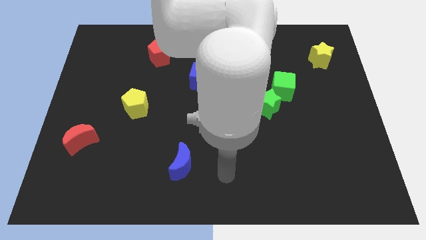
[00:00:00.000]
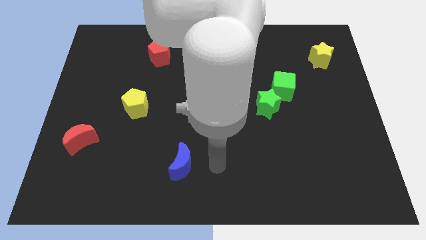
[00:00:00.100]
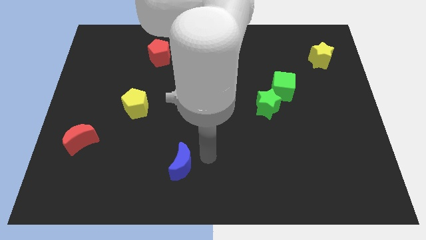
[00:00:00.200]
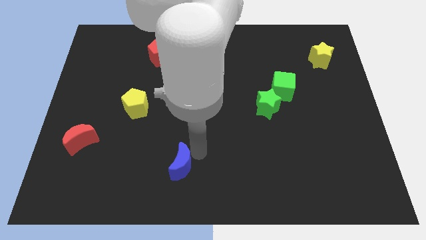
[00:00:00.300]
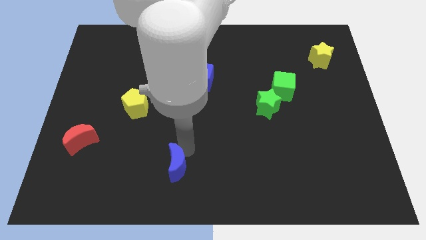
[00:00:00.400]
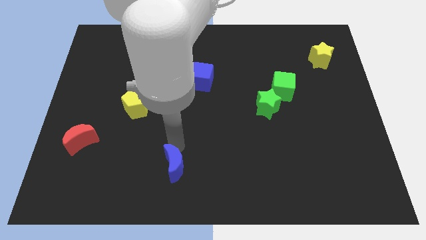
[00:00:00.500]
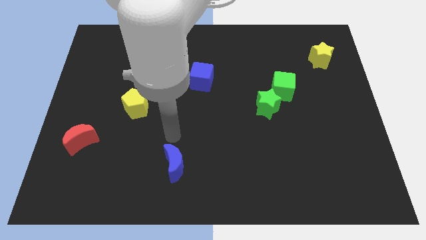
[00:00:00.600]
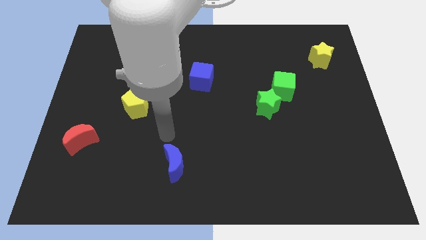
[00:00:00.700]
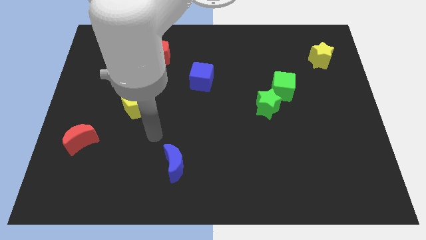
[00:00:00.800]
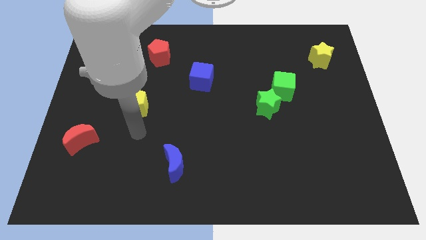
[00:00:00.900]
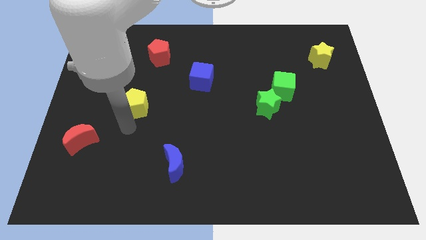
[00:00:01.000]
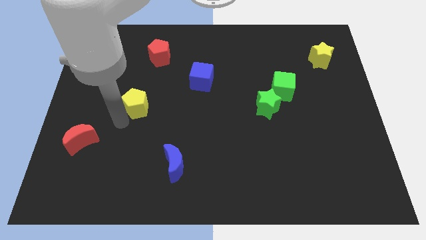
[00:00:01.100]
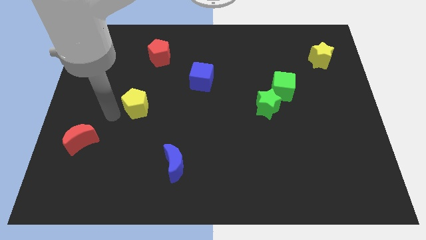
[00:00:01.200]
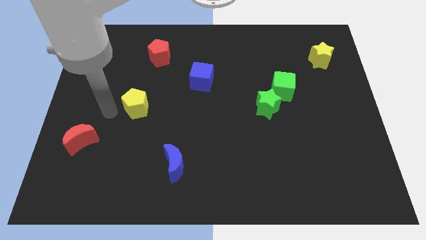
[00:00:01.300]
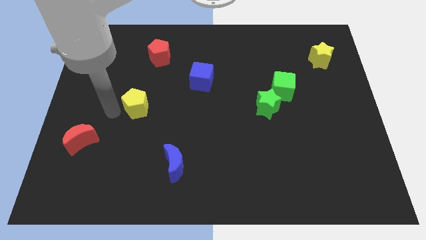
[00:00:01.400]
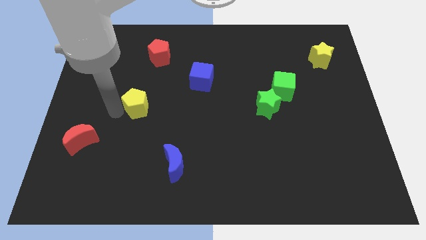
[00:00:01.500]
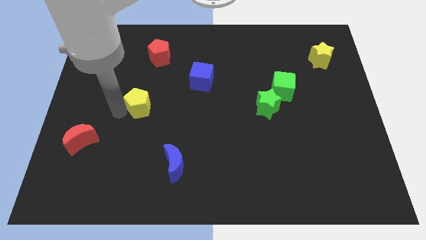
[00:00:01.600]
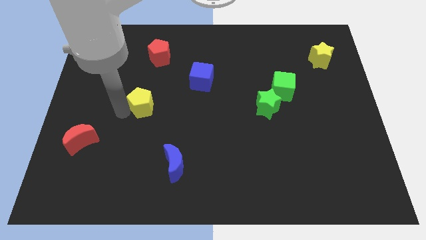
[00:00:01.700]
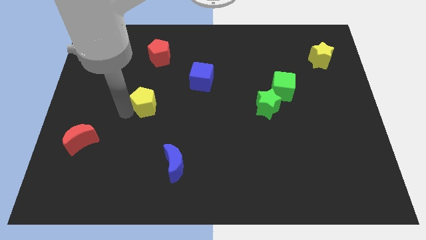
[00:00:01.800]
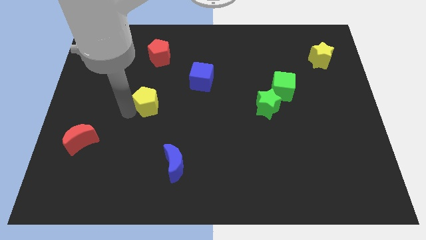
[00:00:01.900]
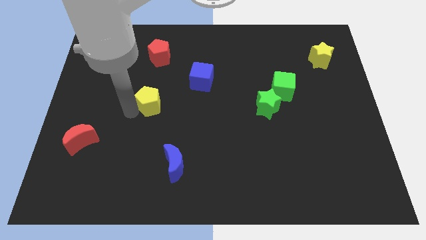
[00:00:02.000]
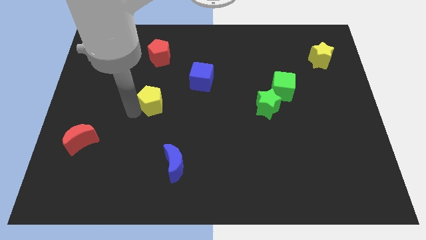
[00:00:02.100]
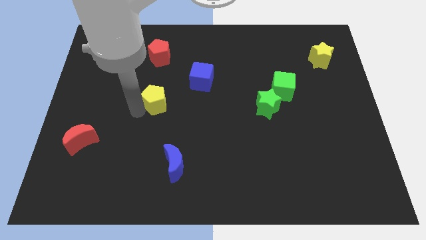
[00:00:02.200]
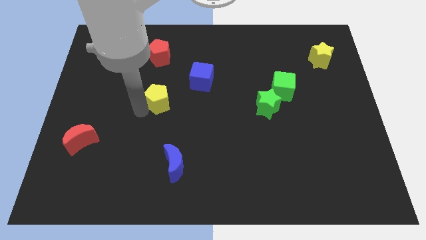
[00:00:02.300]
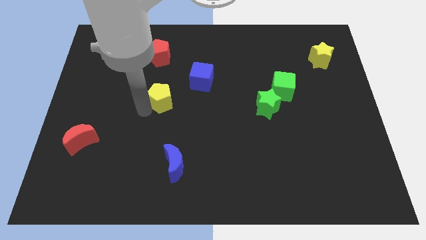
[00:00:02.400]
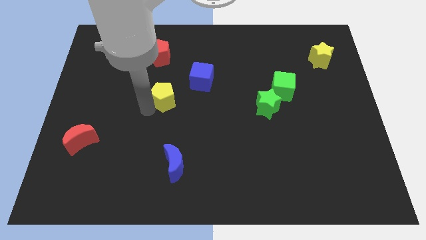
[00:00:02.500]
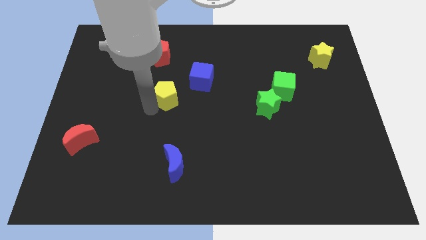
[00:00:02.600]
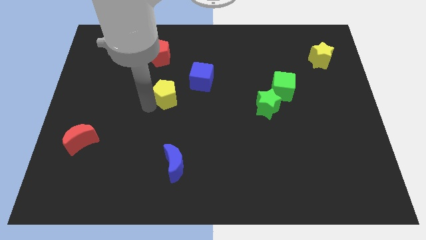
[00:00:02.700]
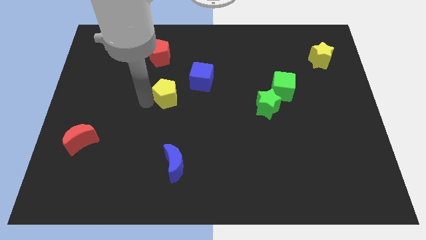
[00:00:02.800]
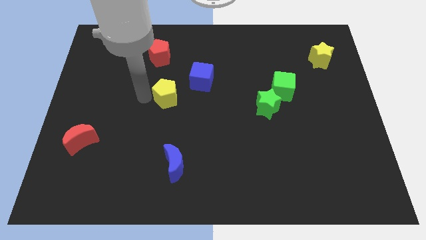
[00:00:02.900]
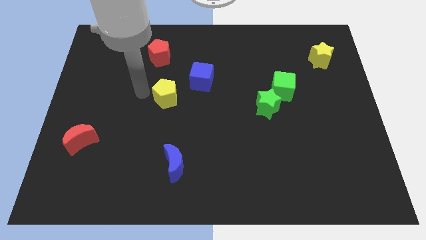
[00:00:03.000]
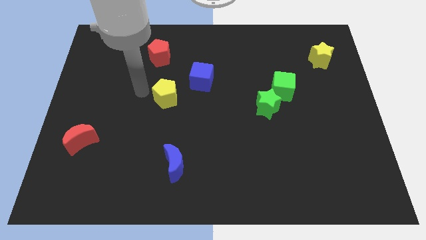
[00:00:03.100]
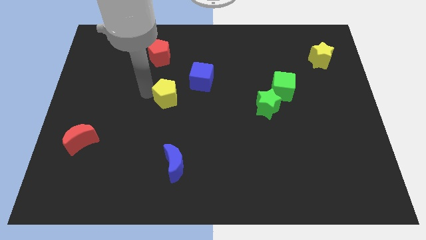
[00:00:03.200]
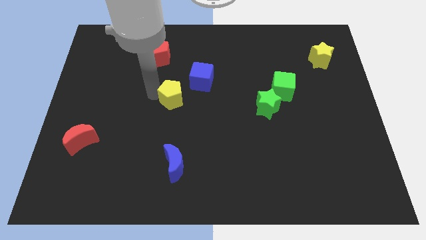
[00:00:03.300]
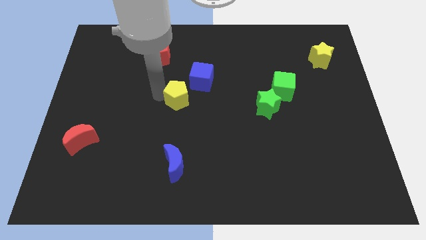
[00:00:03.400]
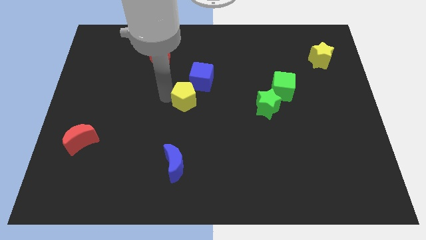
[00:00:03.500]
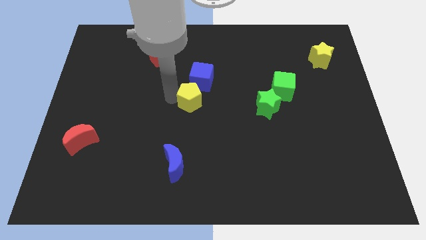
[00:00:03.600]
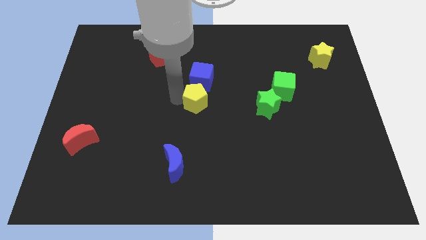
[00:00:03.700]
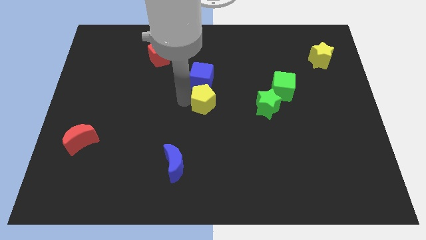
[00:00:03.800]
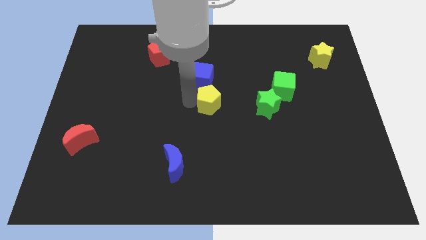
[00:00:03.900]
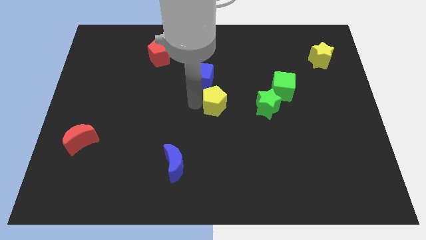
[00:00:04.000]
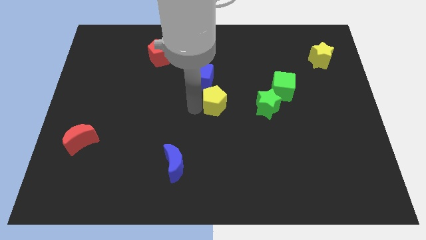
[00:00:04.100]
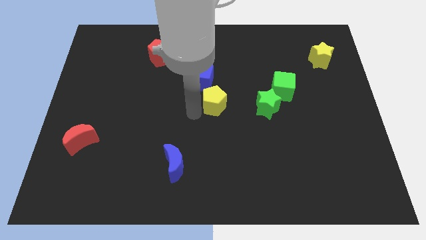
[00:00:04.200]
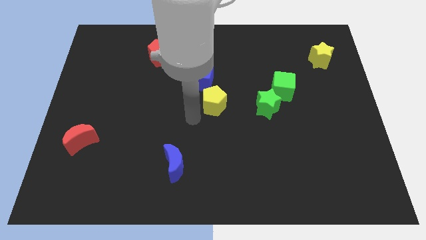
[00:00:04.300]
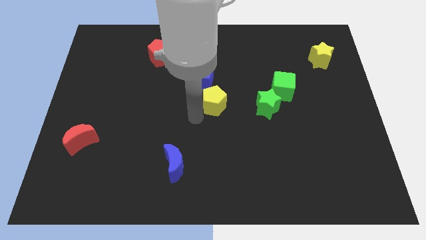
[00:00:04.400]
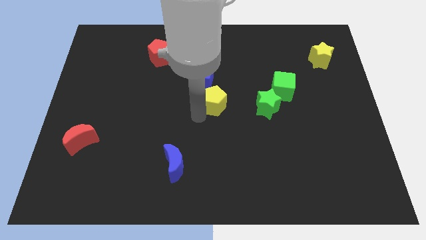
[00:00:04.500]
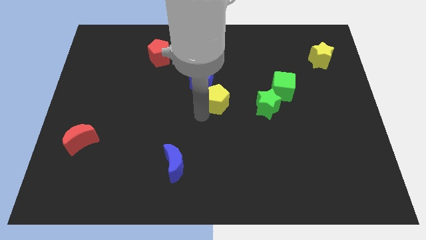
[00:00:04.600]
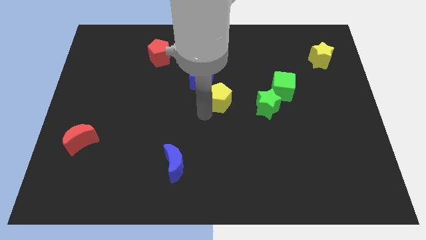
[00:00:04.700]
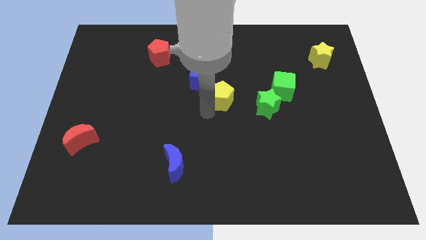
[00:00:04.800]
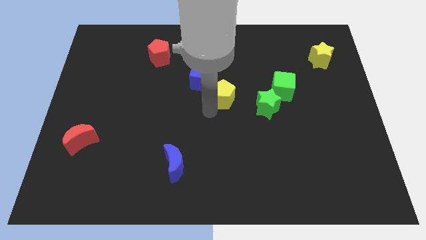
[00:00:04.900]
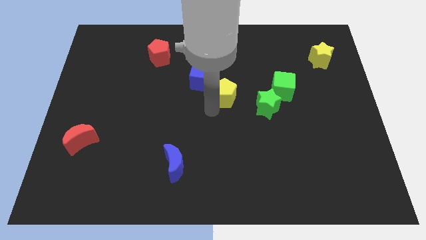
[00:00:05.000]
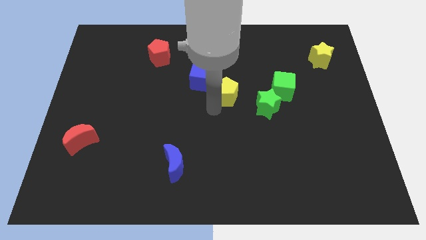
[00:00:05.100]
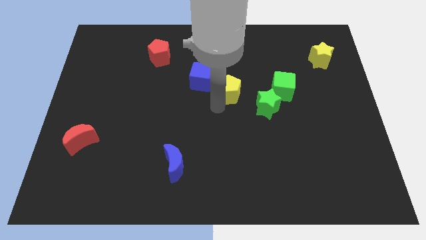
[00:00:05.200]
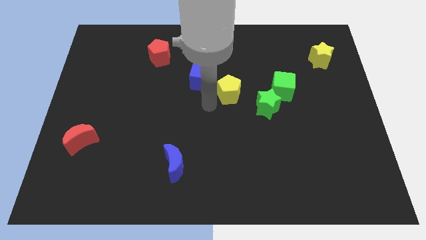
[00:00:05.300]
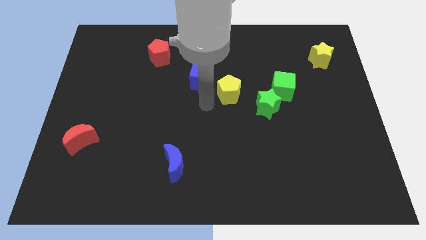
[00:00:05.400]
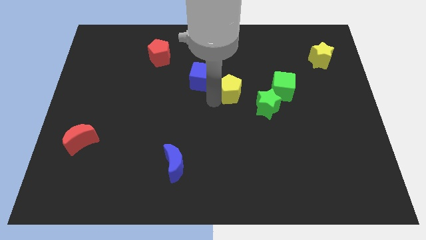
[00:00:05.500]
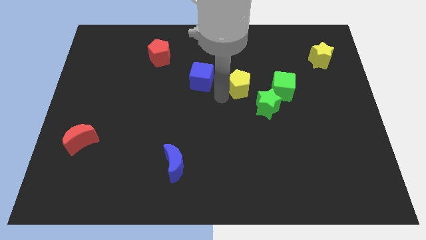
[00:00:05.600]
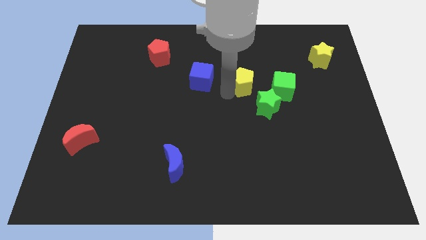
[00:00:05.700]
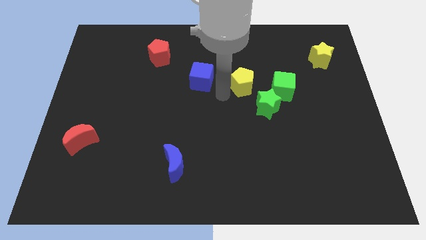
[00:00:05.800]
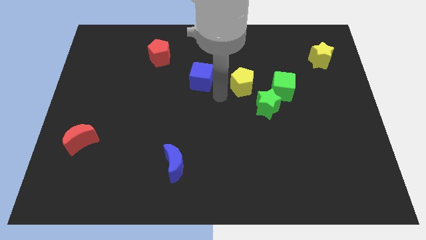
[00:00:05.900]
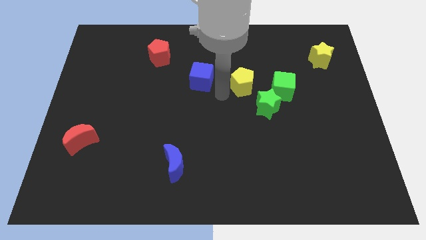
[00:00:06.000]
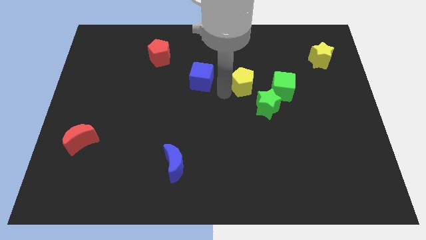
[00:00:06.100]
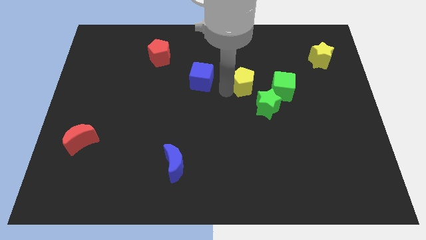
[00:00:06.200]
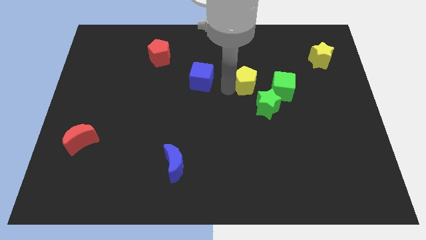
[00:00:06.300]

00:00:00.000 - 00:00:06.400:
slide the yellow pentagon above the green star
